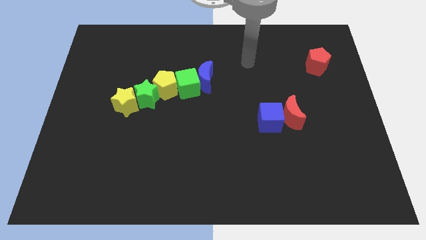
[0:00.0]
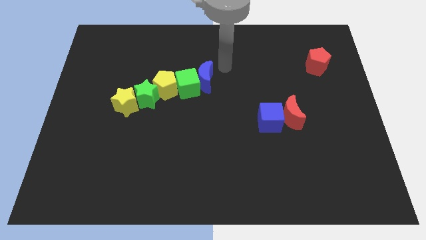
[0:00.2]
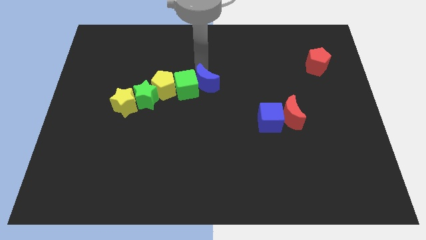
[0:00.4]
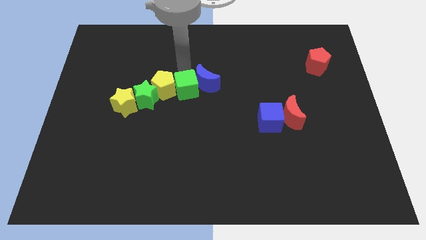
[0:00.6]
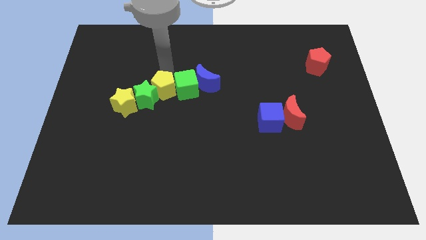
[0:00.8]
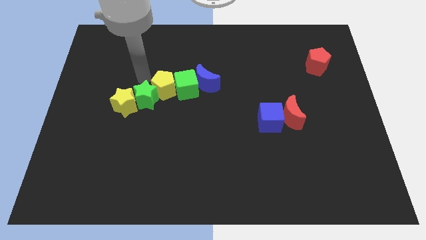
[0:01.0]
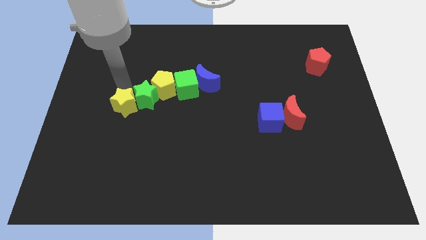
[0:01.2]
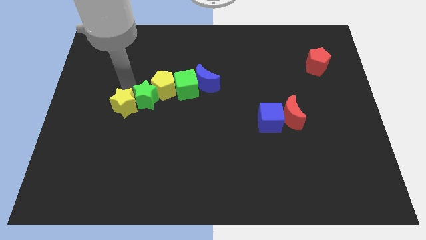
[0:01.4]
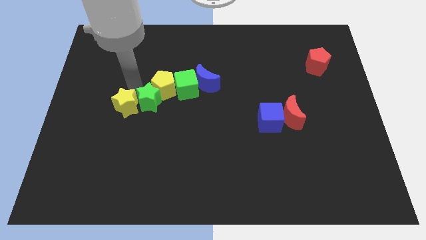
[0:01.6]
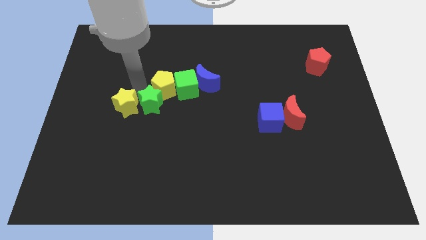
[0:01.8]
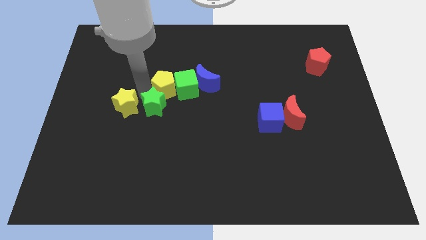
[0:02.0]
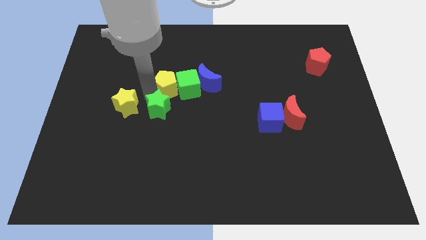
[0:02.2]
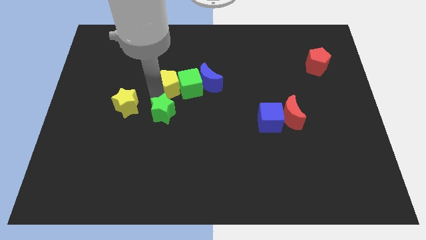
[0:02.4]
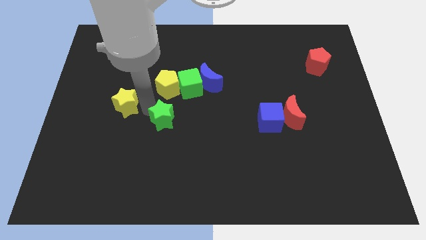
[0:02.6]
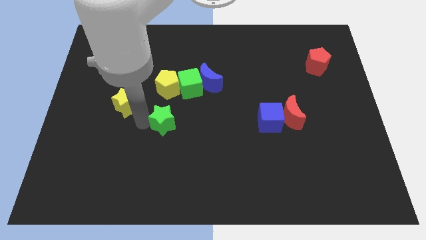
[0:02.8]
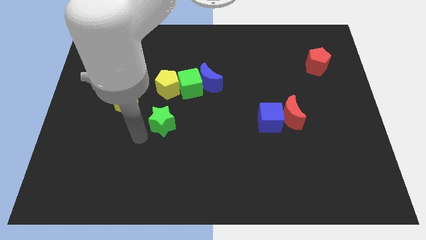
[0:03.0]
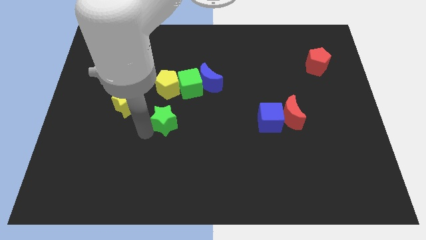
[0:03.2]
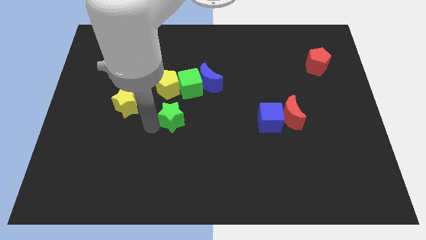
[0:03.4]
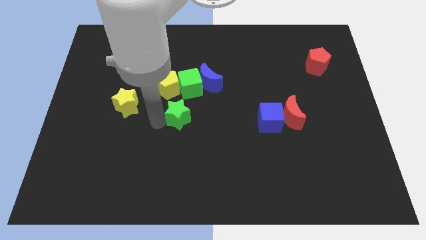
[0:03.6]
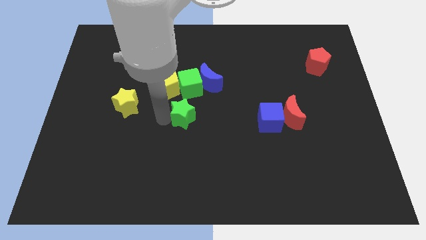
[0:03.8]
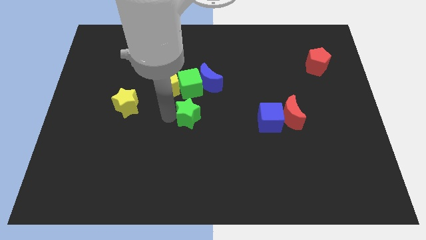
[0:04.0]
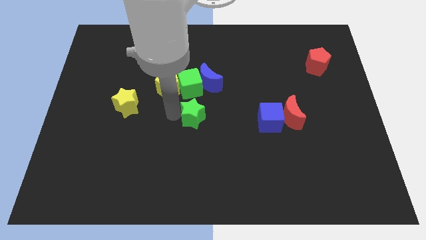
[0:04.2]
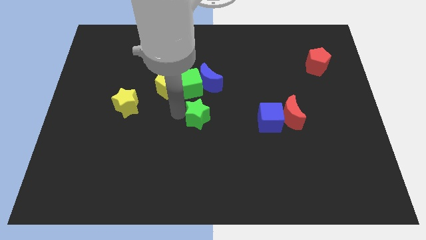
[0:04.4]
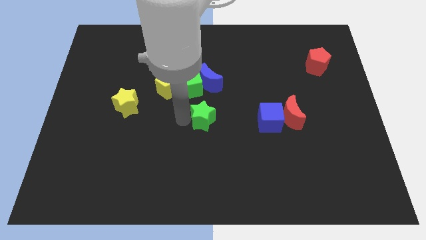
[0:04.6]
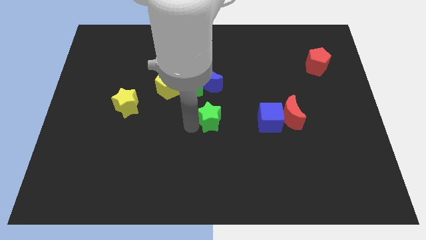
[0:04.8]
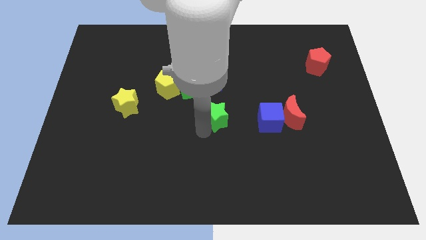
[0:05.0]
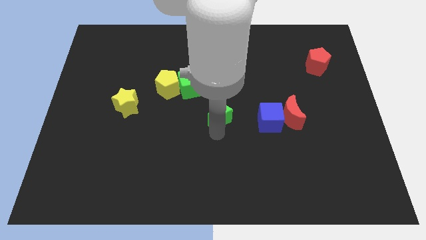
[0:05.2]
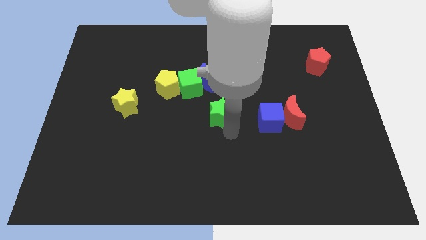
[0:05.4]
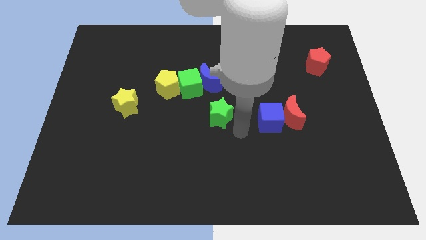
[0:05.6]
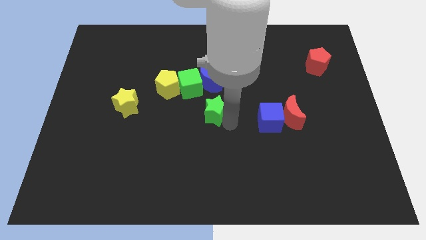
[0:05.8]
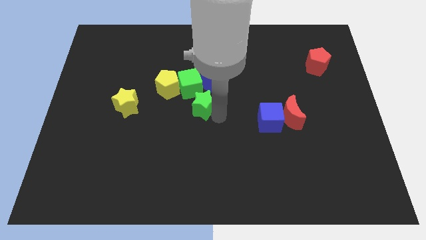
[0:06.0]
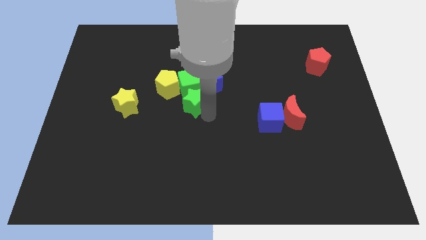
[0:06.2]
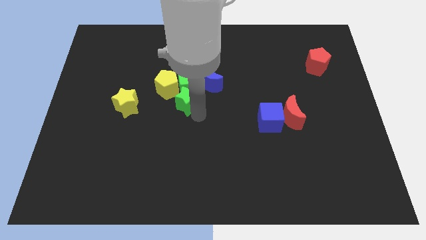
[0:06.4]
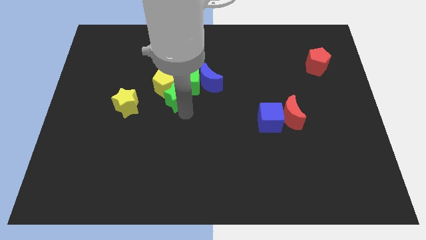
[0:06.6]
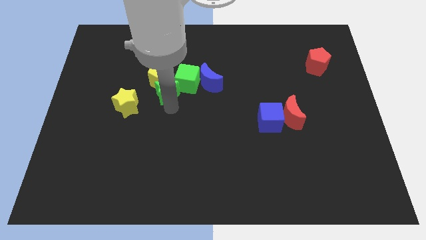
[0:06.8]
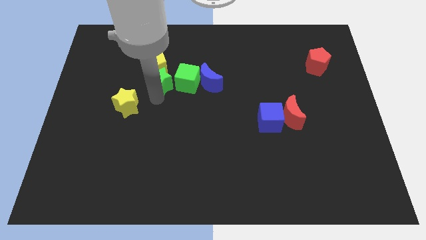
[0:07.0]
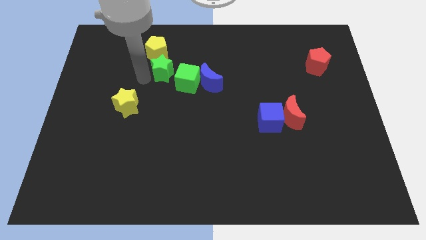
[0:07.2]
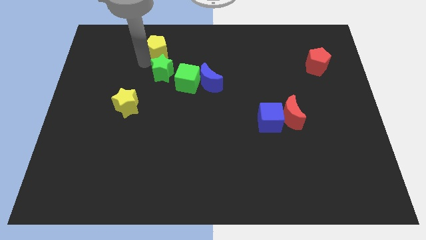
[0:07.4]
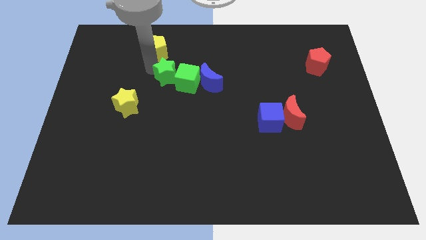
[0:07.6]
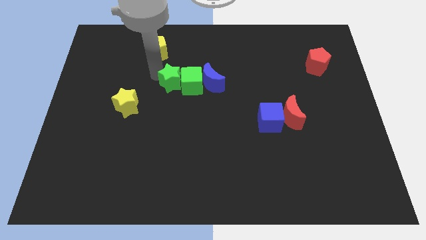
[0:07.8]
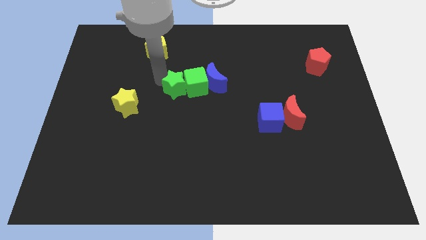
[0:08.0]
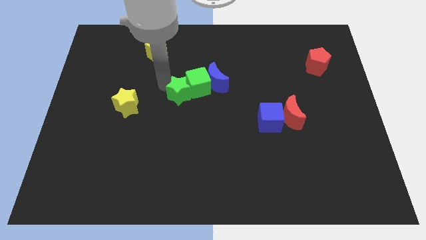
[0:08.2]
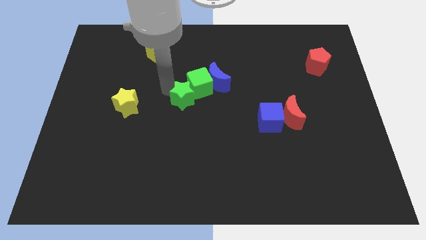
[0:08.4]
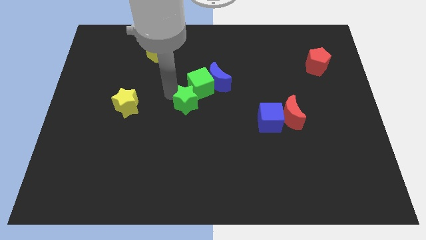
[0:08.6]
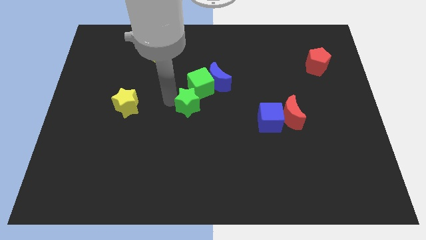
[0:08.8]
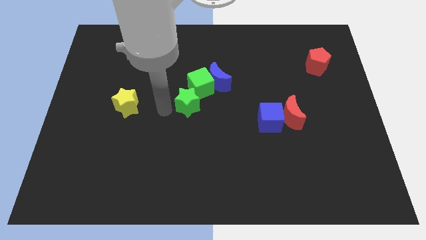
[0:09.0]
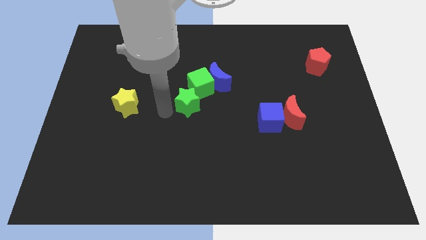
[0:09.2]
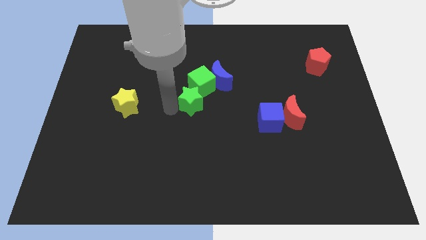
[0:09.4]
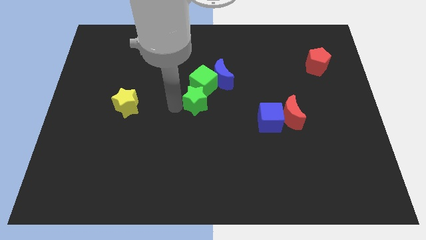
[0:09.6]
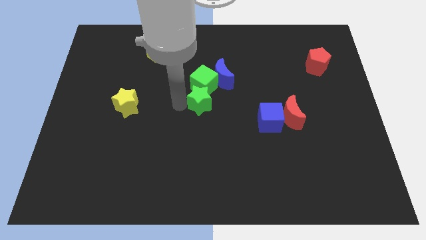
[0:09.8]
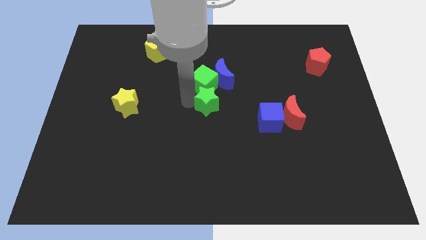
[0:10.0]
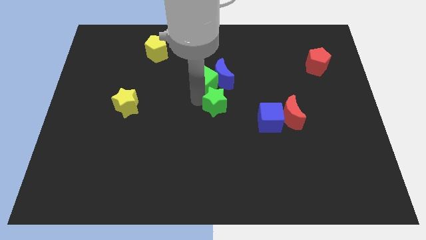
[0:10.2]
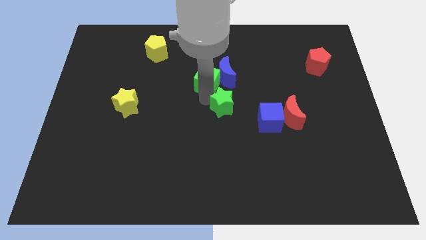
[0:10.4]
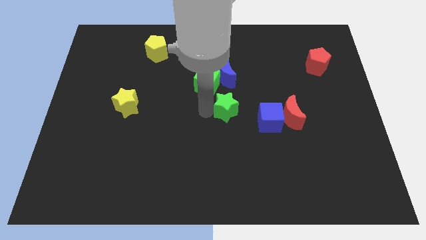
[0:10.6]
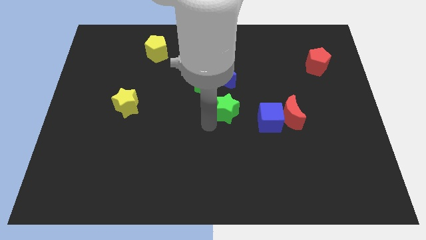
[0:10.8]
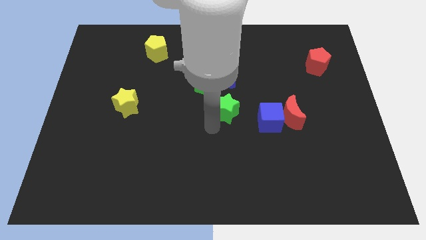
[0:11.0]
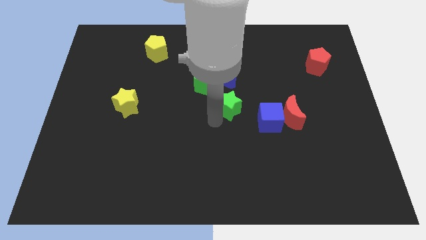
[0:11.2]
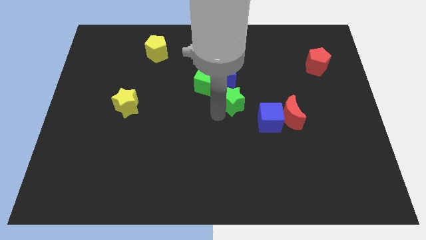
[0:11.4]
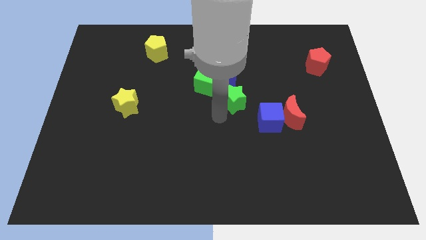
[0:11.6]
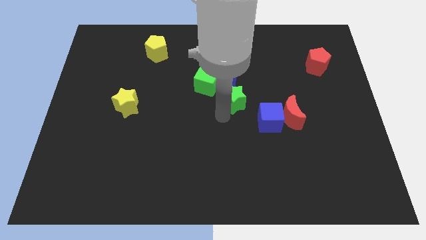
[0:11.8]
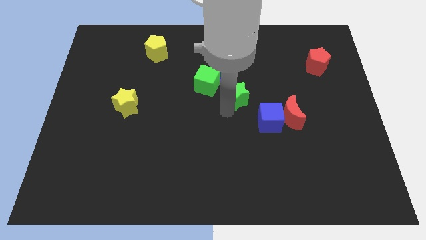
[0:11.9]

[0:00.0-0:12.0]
slide the green star to the right of the green cube

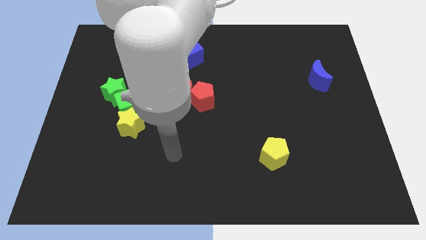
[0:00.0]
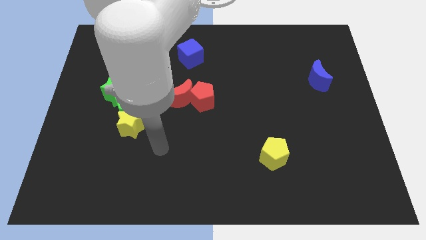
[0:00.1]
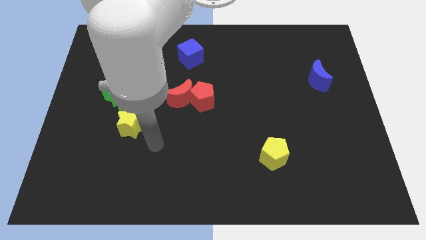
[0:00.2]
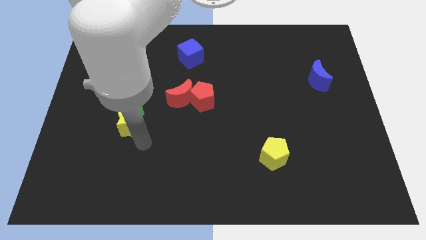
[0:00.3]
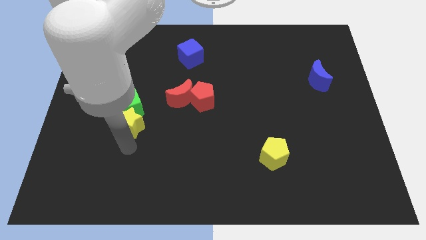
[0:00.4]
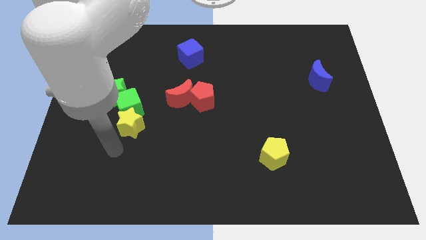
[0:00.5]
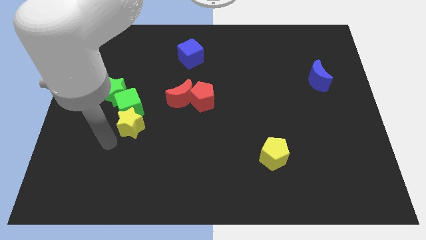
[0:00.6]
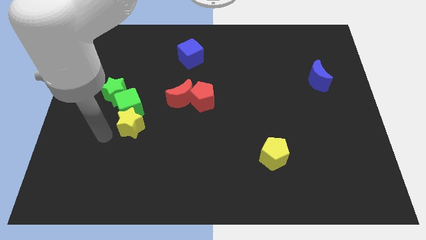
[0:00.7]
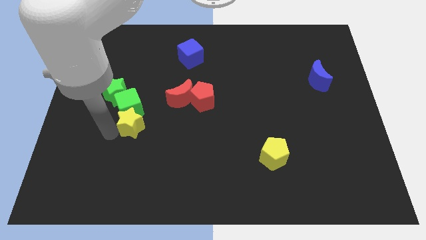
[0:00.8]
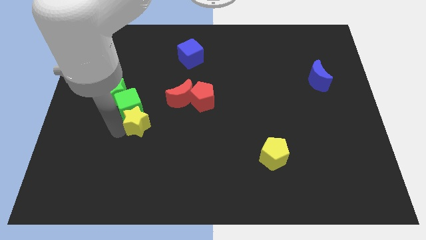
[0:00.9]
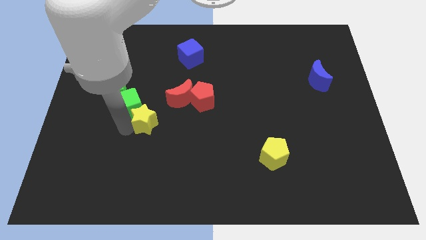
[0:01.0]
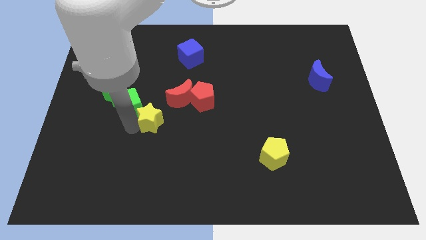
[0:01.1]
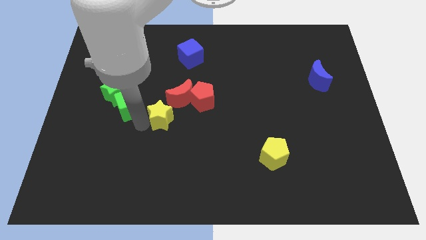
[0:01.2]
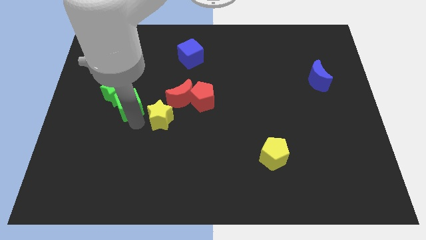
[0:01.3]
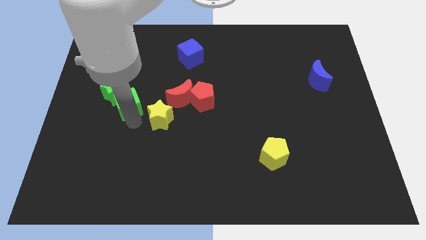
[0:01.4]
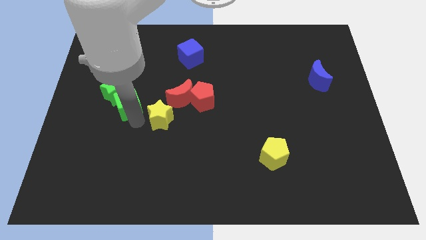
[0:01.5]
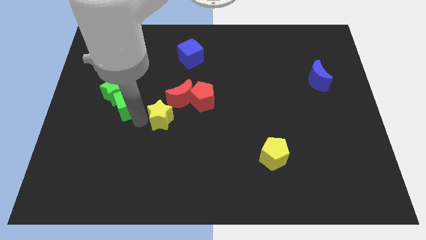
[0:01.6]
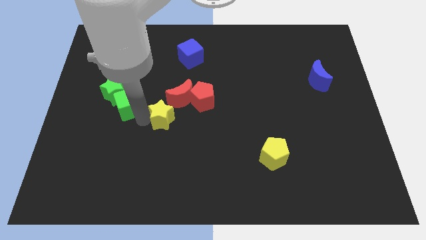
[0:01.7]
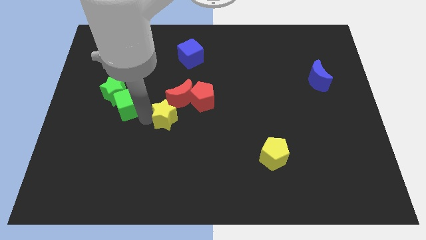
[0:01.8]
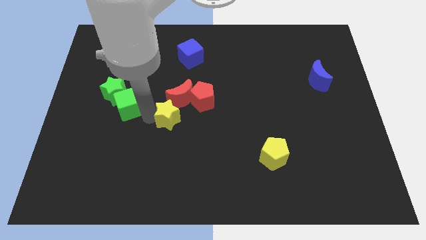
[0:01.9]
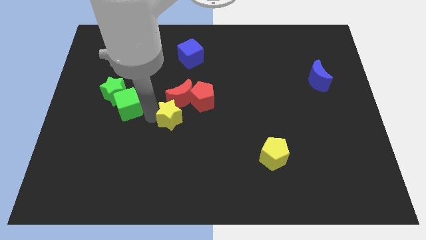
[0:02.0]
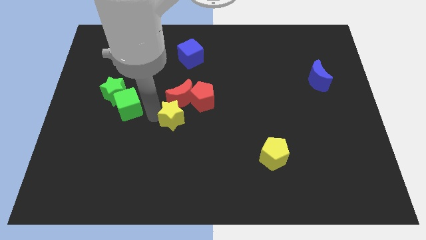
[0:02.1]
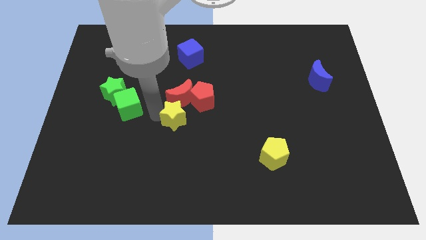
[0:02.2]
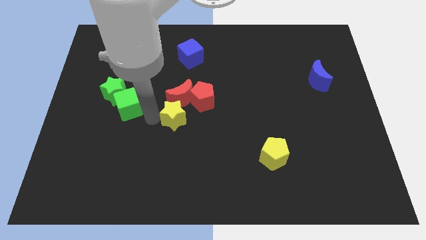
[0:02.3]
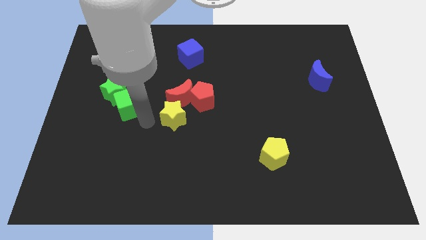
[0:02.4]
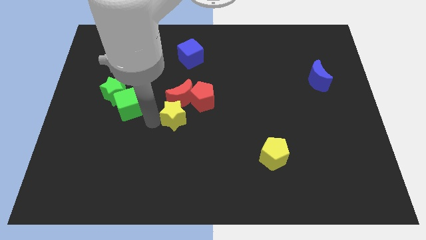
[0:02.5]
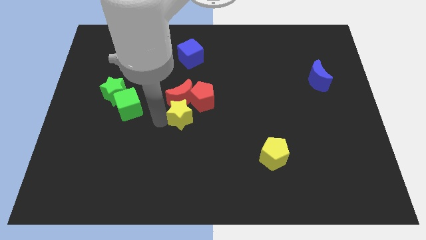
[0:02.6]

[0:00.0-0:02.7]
slide the yellow star to the bottom right of the red moon
